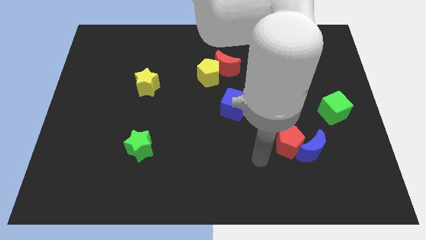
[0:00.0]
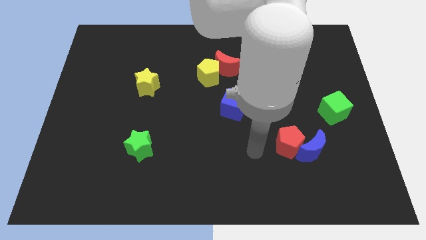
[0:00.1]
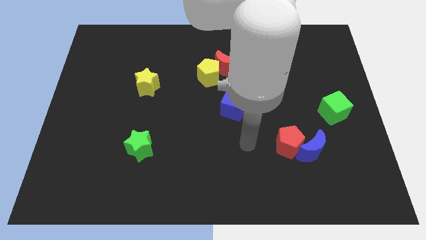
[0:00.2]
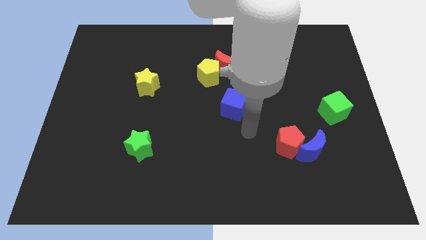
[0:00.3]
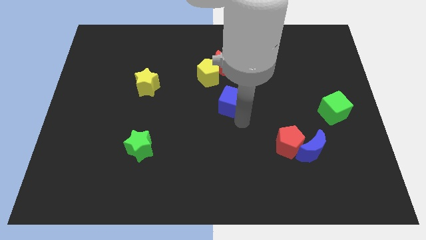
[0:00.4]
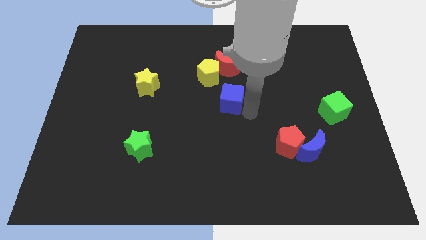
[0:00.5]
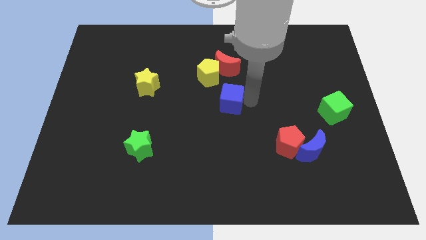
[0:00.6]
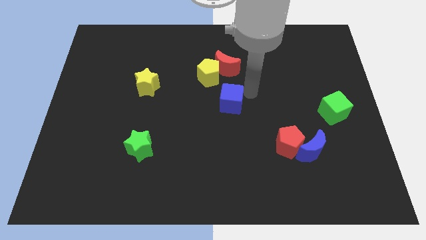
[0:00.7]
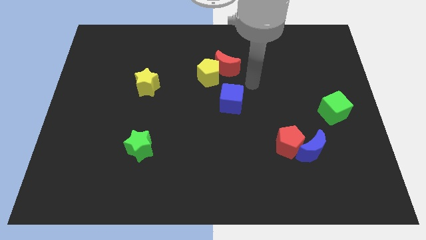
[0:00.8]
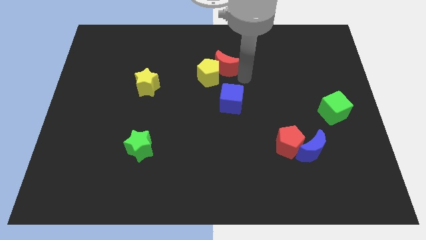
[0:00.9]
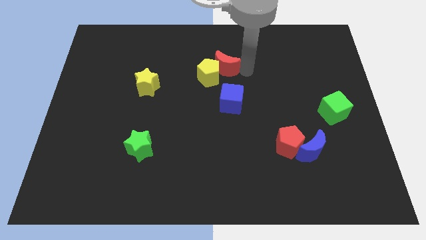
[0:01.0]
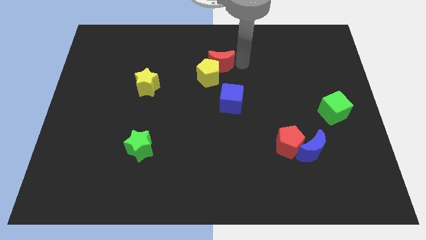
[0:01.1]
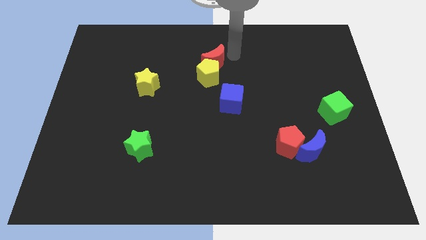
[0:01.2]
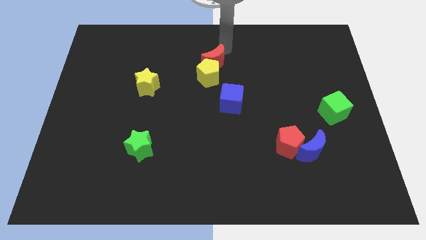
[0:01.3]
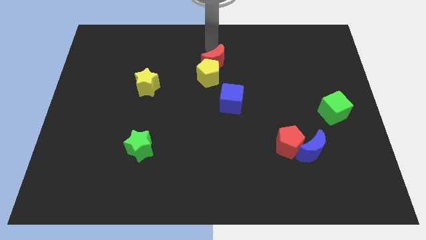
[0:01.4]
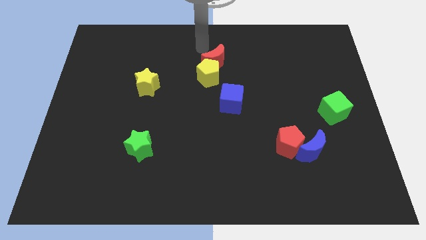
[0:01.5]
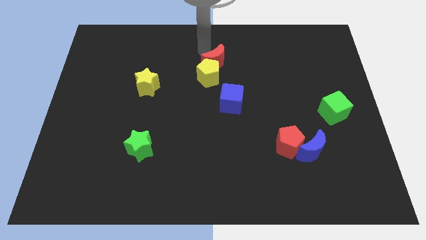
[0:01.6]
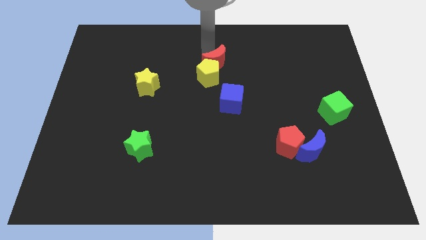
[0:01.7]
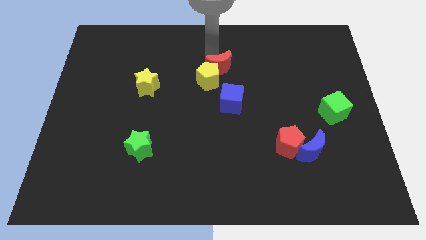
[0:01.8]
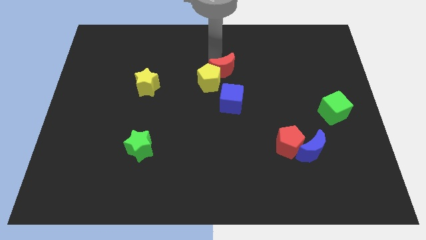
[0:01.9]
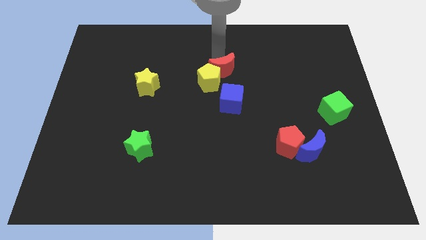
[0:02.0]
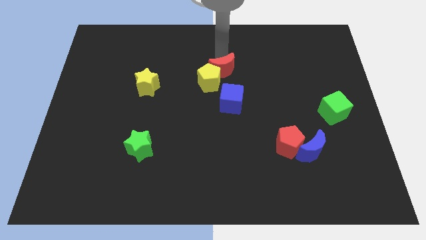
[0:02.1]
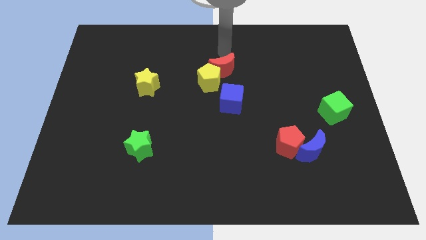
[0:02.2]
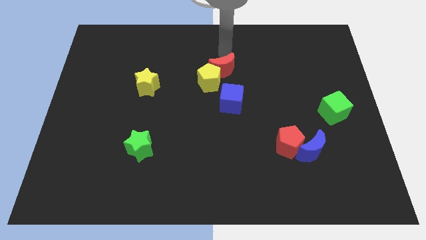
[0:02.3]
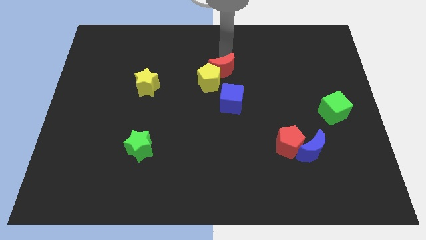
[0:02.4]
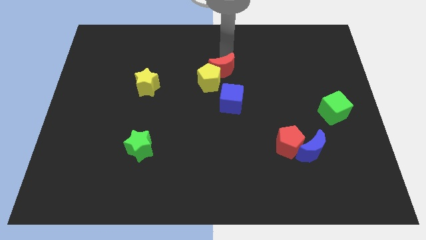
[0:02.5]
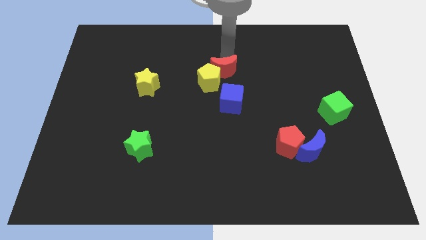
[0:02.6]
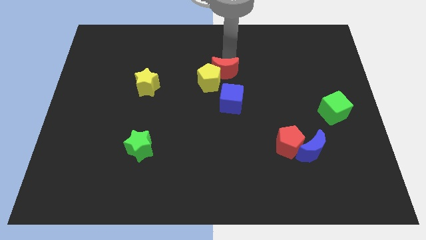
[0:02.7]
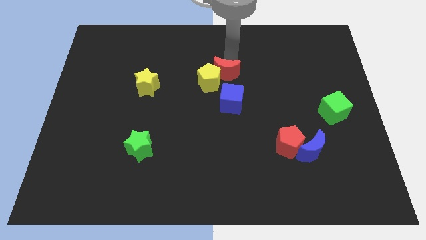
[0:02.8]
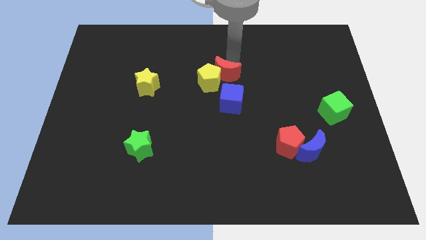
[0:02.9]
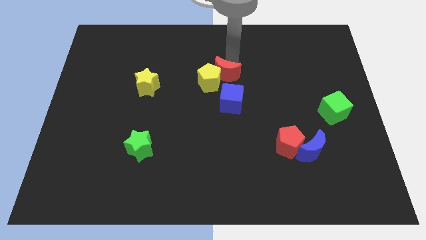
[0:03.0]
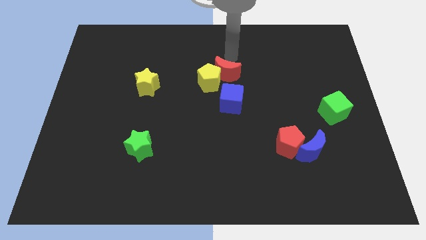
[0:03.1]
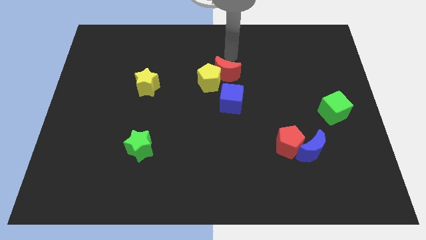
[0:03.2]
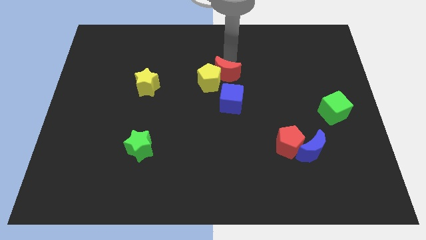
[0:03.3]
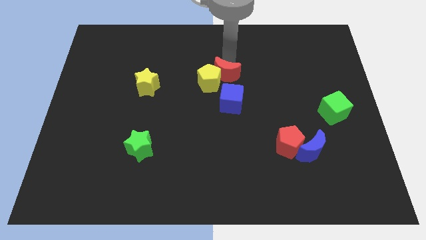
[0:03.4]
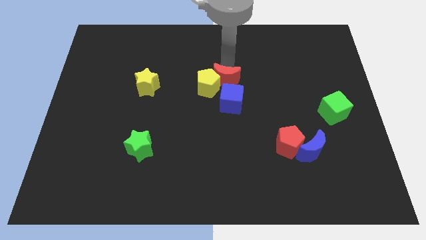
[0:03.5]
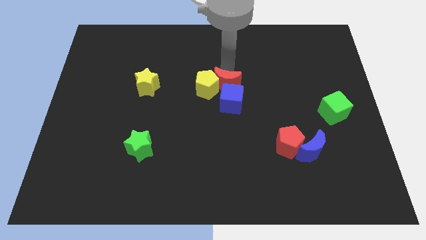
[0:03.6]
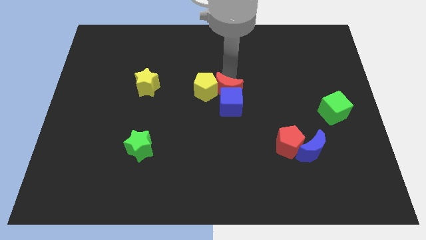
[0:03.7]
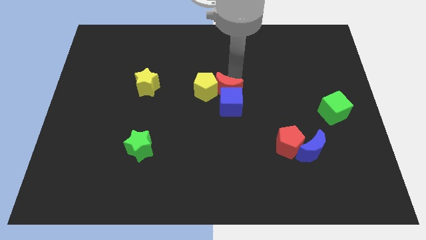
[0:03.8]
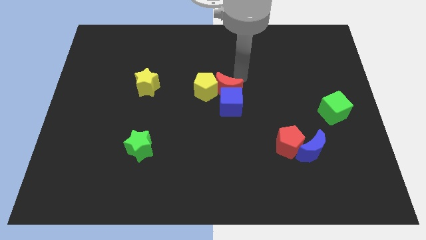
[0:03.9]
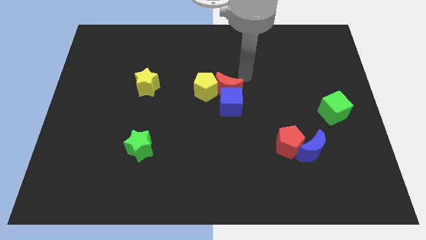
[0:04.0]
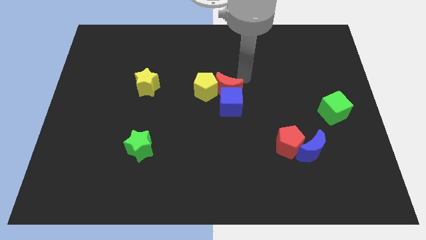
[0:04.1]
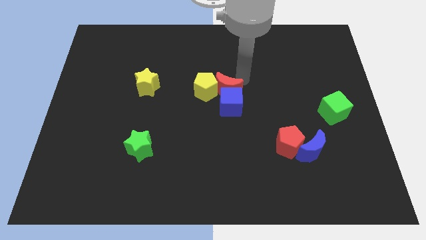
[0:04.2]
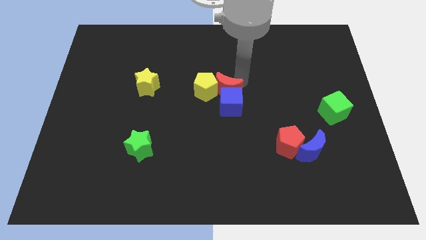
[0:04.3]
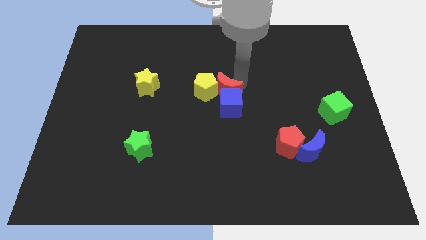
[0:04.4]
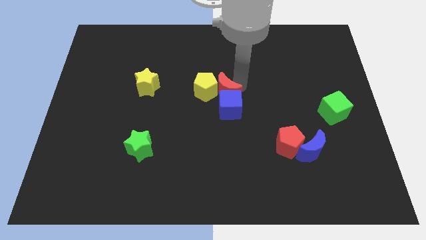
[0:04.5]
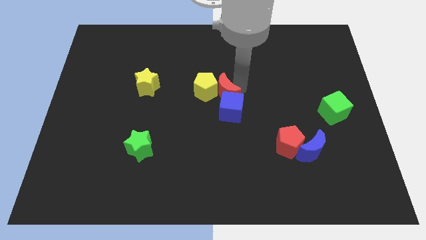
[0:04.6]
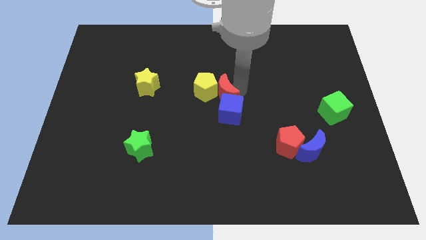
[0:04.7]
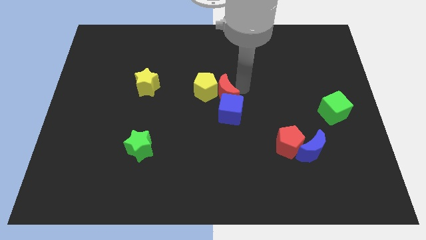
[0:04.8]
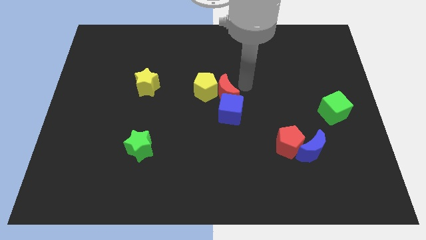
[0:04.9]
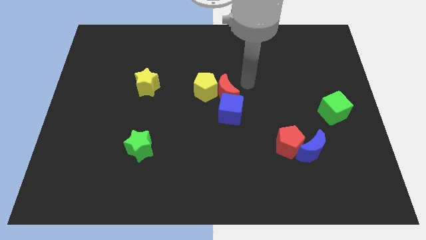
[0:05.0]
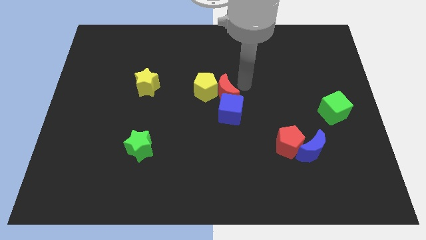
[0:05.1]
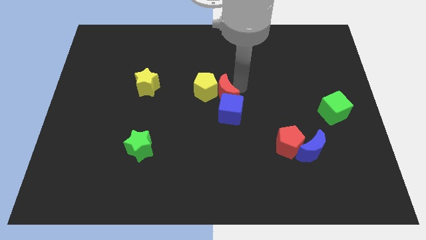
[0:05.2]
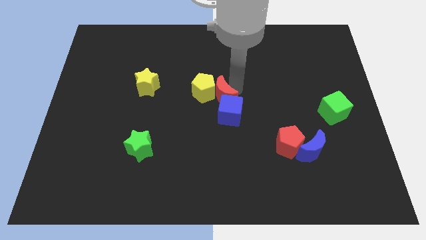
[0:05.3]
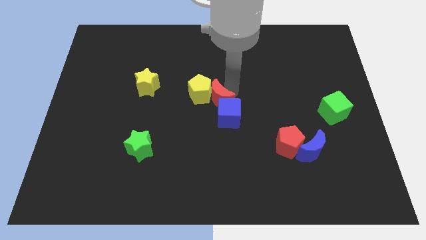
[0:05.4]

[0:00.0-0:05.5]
slightly slide the red moon down and left

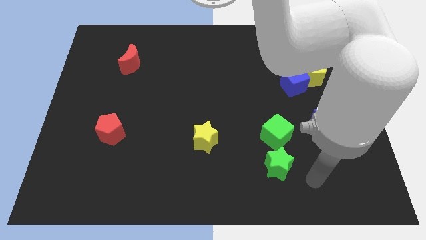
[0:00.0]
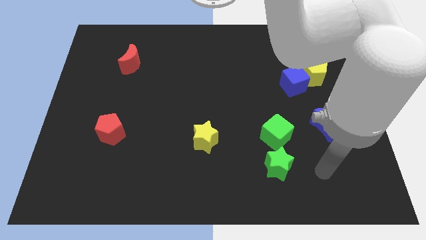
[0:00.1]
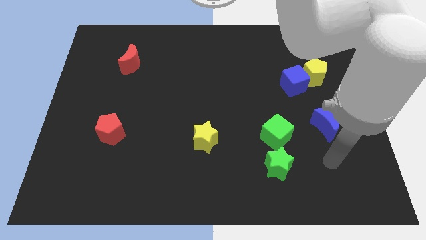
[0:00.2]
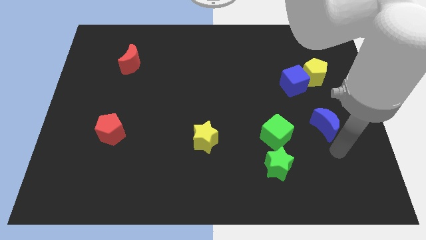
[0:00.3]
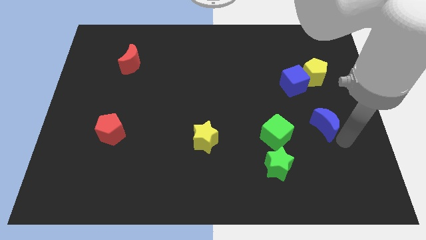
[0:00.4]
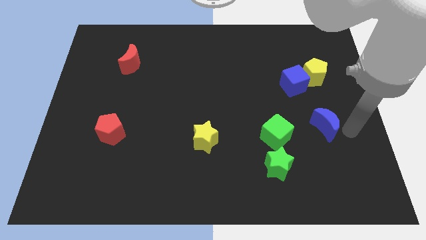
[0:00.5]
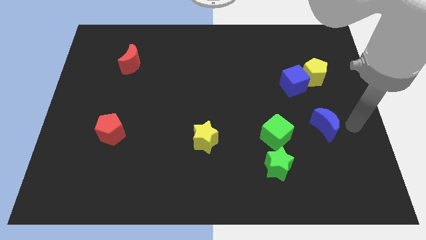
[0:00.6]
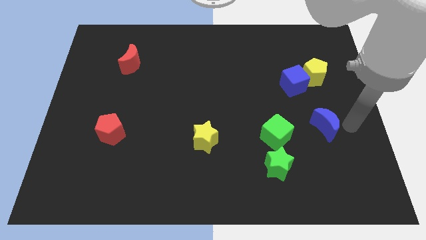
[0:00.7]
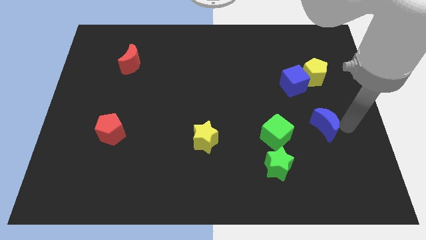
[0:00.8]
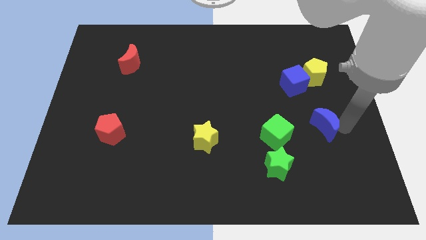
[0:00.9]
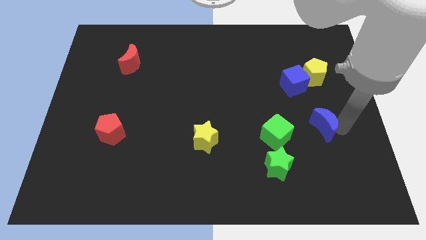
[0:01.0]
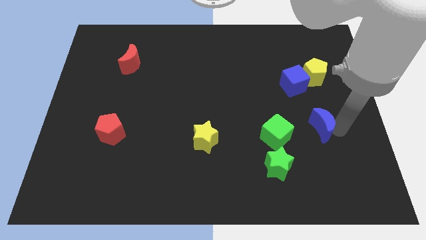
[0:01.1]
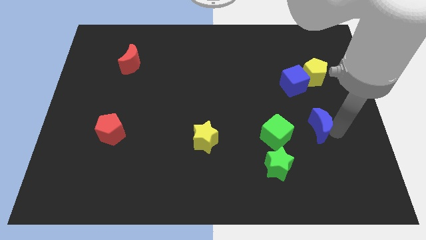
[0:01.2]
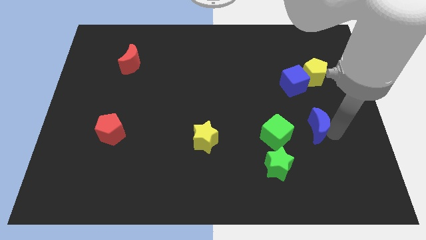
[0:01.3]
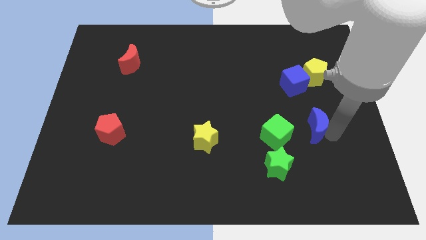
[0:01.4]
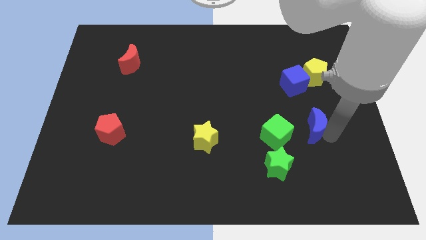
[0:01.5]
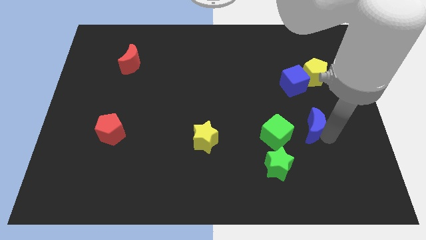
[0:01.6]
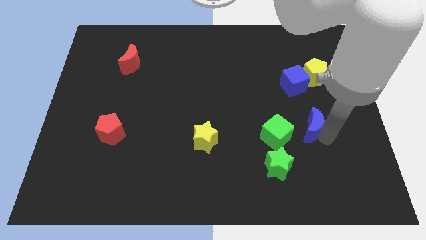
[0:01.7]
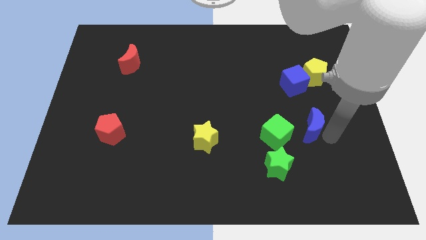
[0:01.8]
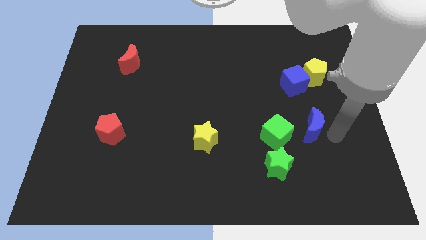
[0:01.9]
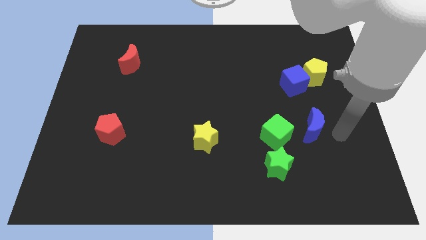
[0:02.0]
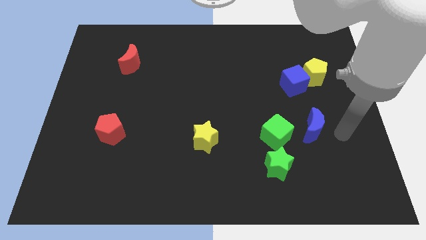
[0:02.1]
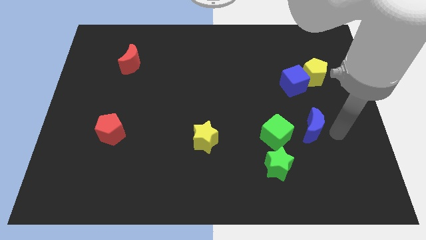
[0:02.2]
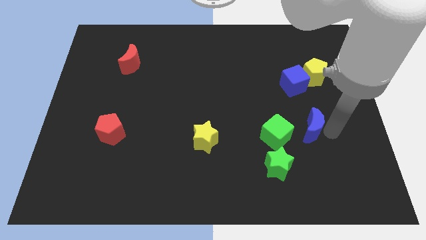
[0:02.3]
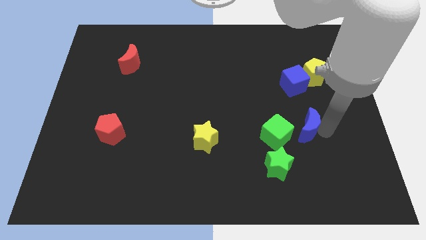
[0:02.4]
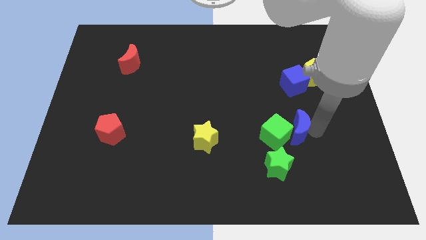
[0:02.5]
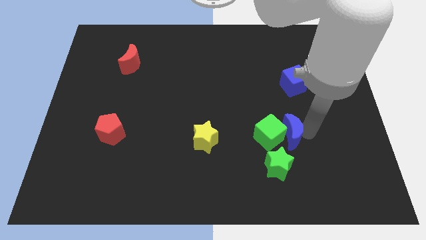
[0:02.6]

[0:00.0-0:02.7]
move the blue moon to the left somewhat

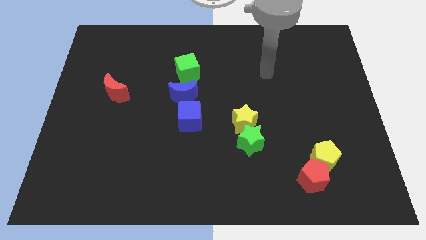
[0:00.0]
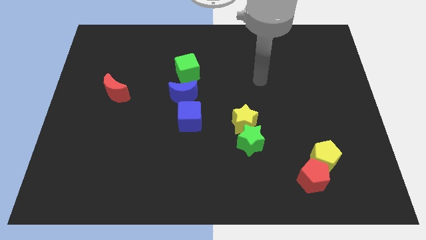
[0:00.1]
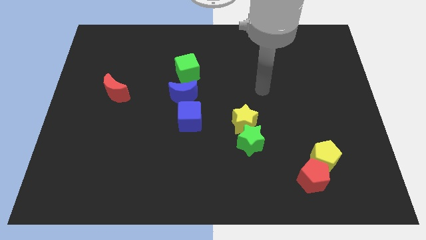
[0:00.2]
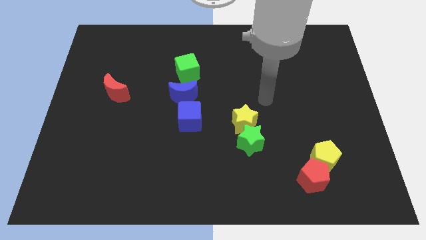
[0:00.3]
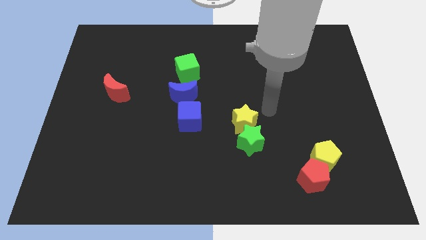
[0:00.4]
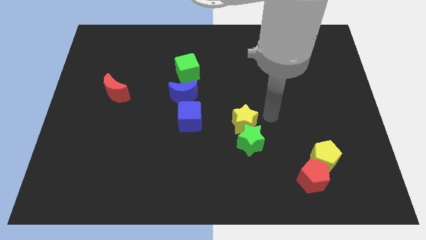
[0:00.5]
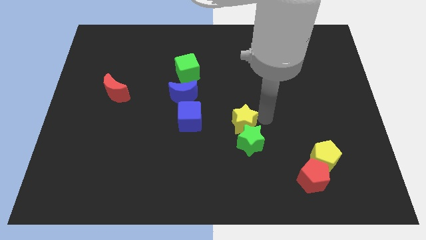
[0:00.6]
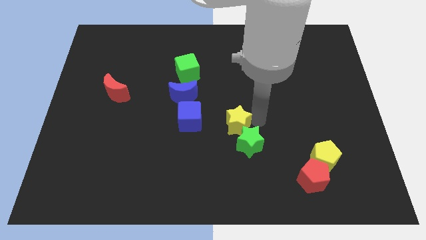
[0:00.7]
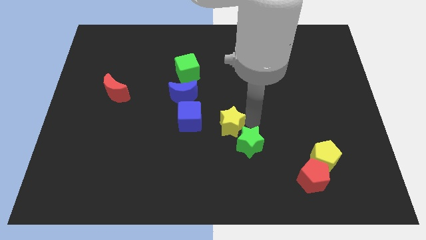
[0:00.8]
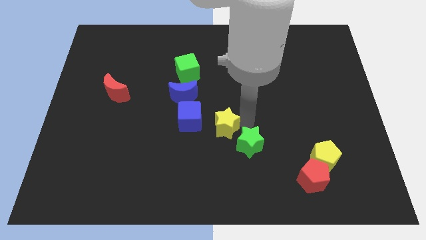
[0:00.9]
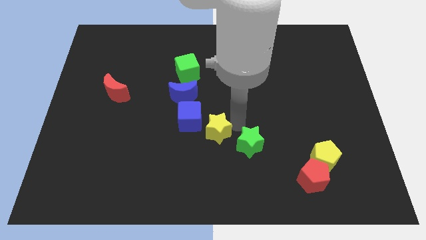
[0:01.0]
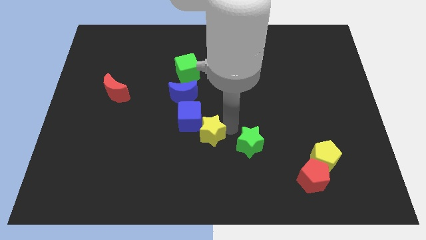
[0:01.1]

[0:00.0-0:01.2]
push the yellow star a little bit left
